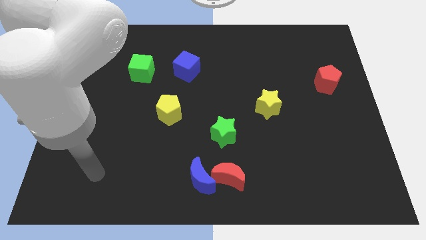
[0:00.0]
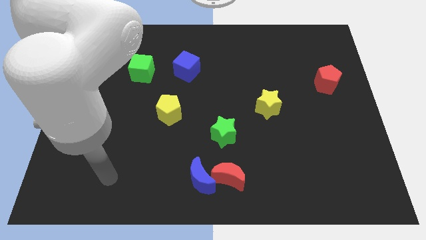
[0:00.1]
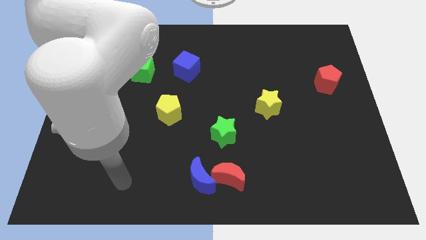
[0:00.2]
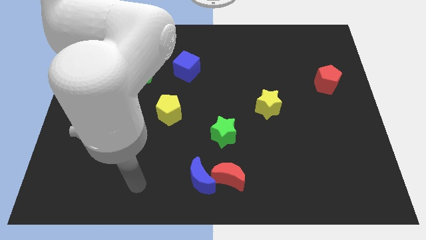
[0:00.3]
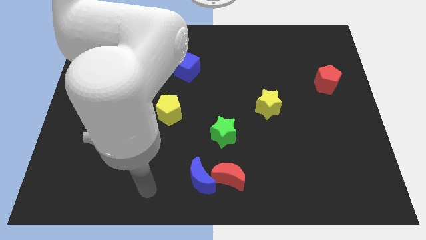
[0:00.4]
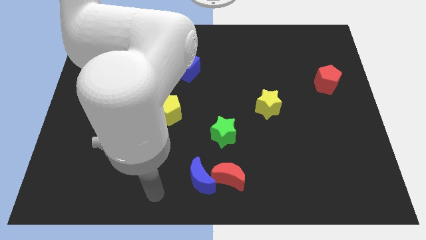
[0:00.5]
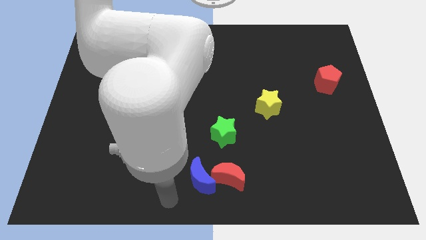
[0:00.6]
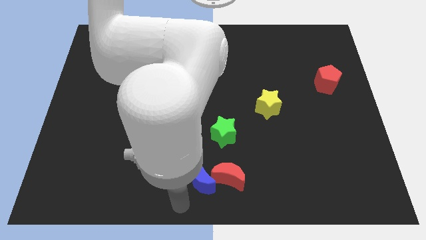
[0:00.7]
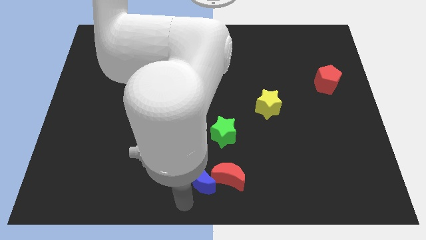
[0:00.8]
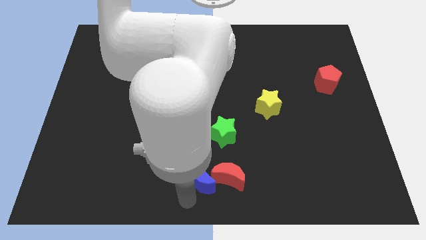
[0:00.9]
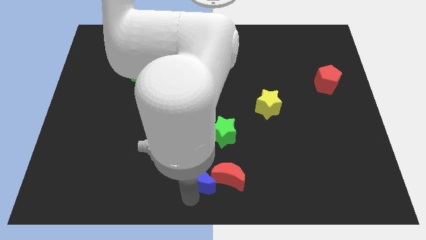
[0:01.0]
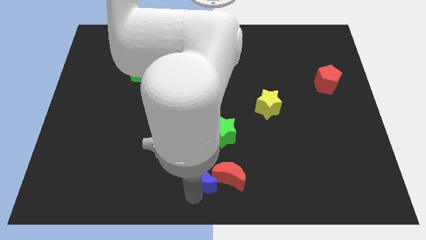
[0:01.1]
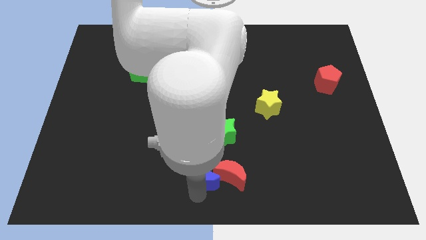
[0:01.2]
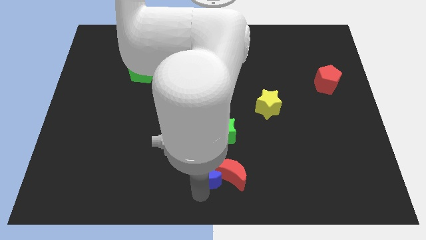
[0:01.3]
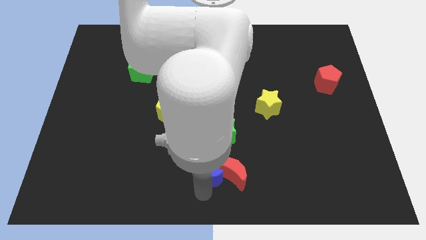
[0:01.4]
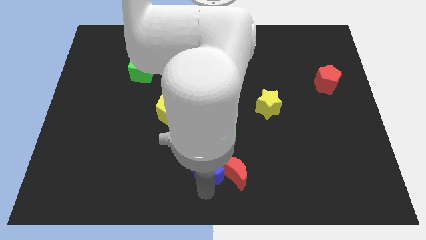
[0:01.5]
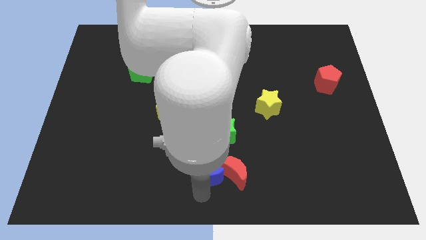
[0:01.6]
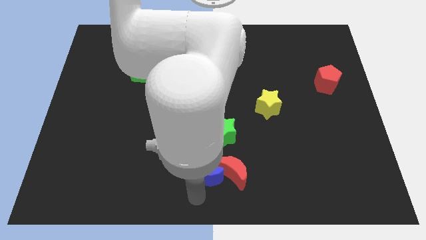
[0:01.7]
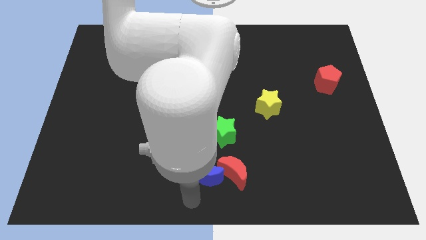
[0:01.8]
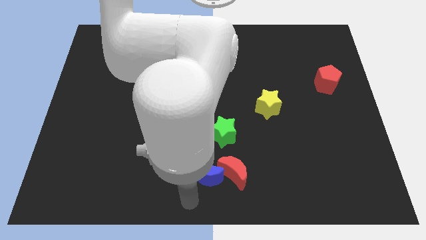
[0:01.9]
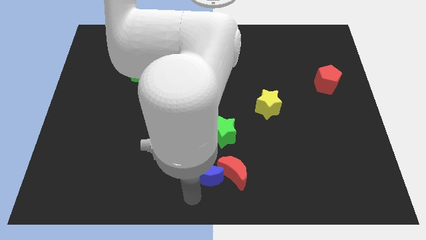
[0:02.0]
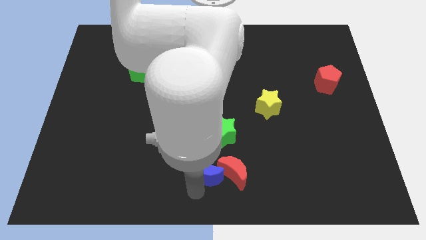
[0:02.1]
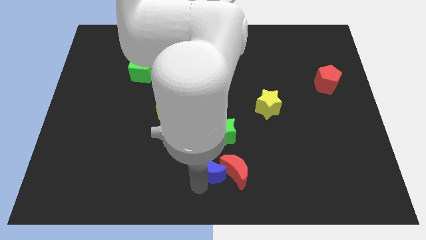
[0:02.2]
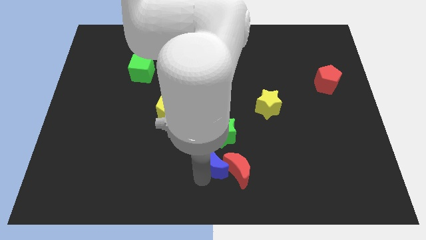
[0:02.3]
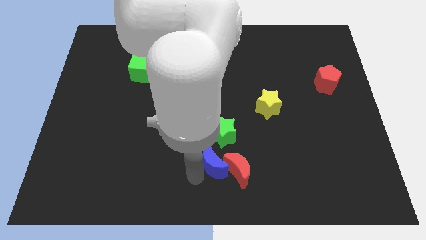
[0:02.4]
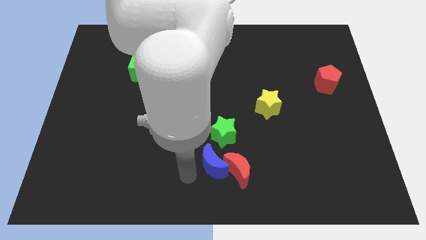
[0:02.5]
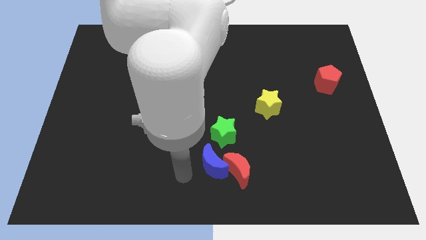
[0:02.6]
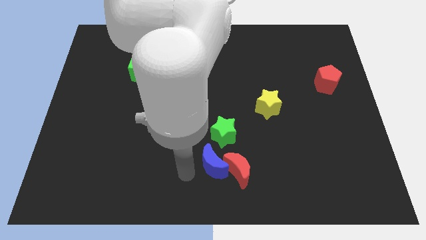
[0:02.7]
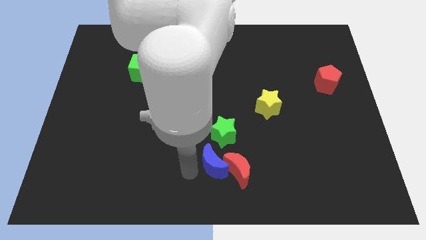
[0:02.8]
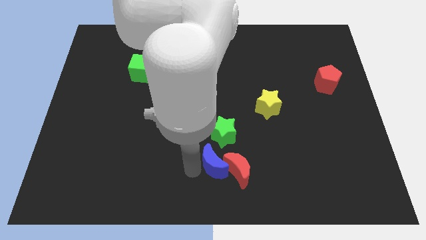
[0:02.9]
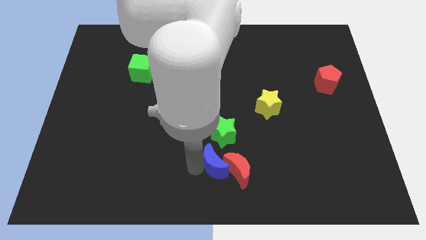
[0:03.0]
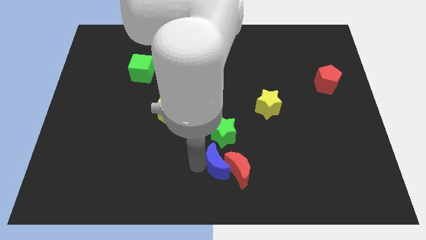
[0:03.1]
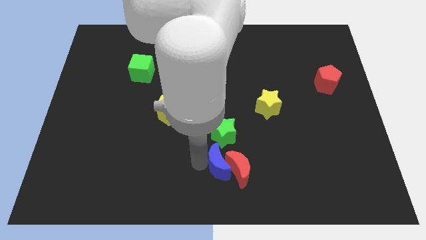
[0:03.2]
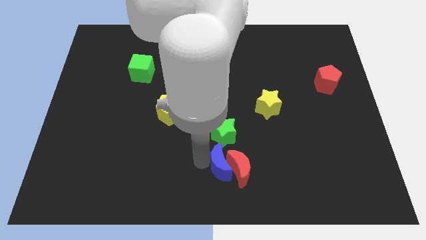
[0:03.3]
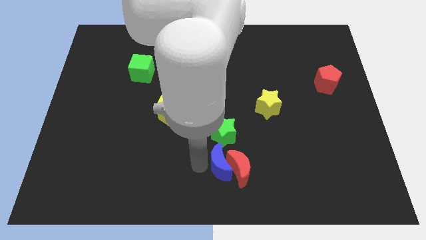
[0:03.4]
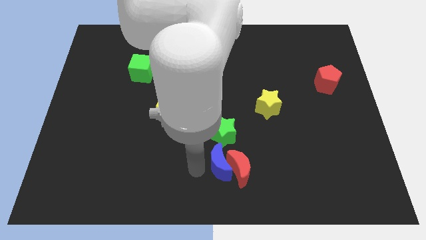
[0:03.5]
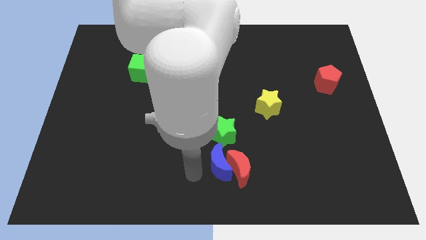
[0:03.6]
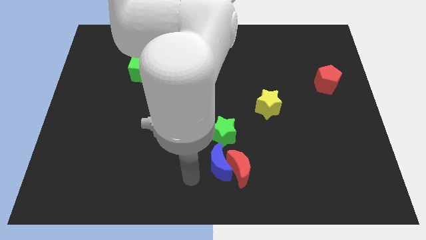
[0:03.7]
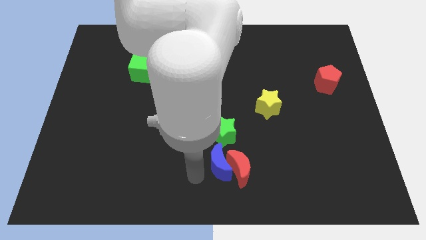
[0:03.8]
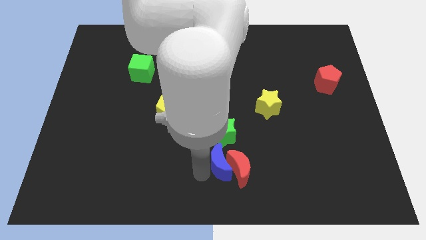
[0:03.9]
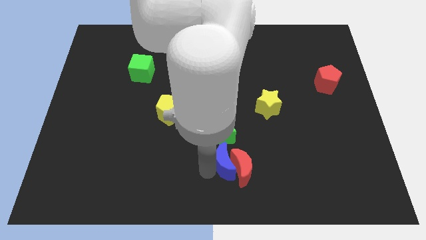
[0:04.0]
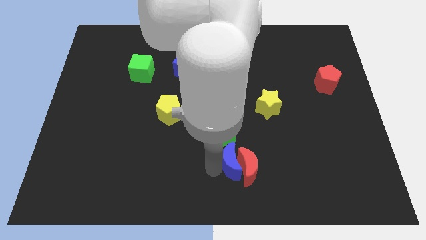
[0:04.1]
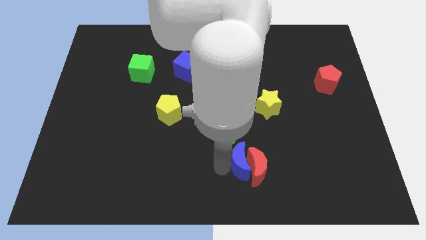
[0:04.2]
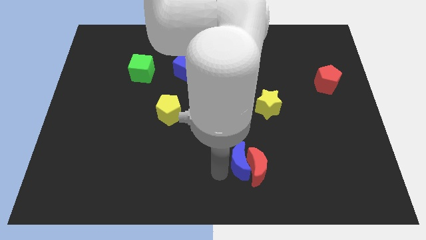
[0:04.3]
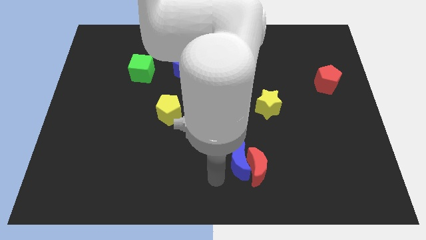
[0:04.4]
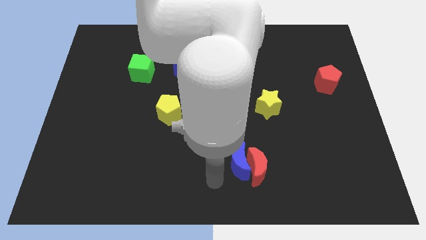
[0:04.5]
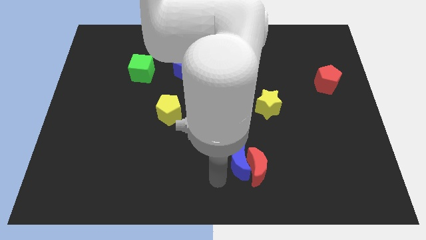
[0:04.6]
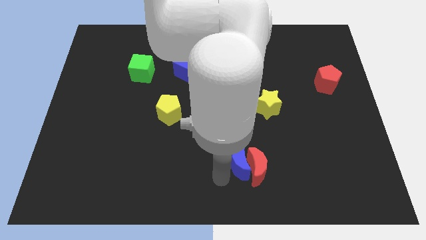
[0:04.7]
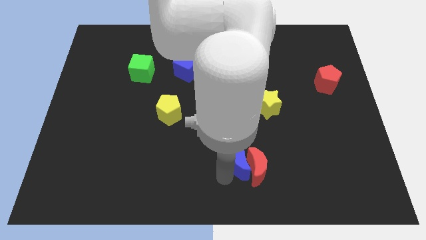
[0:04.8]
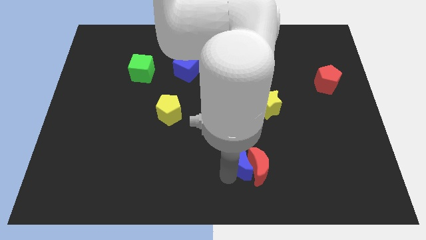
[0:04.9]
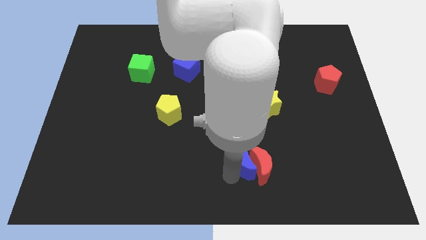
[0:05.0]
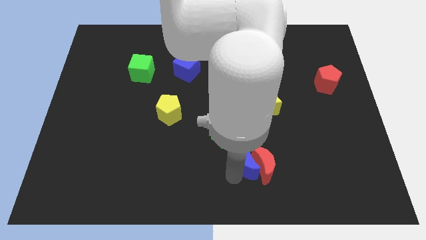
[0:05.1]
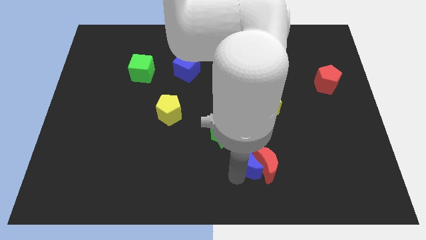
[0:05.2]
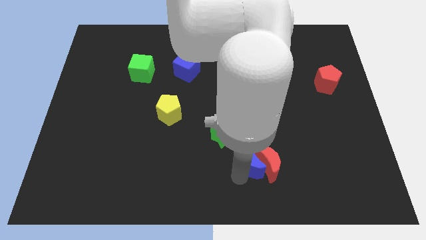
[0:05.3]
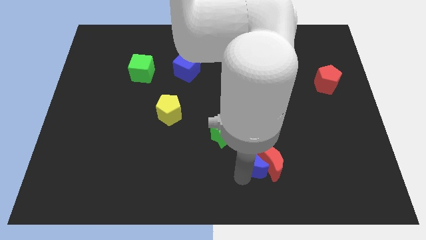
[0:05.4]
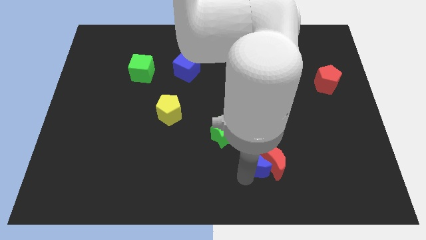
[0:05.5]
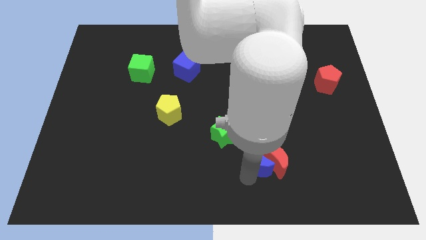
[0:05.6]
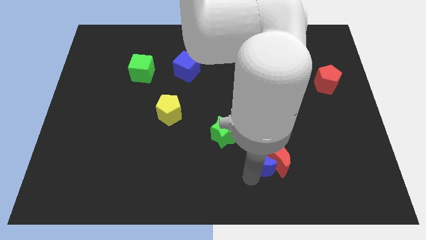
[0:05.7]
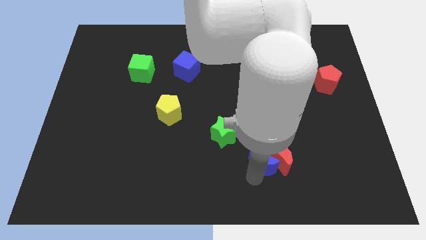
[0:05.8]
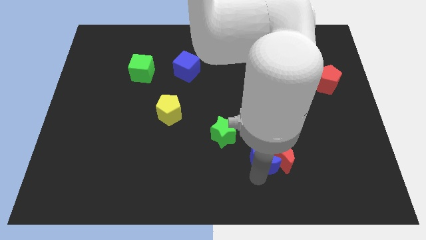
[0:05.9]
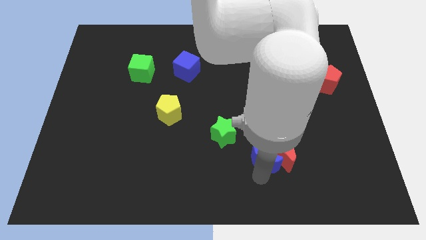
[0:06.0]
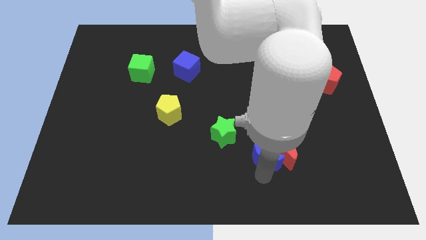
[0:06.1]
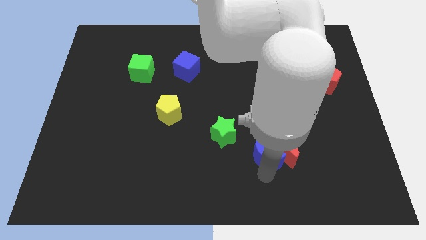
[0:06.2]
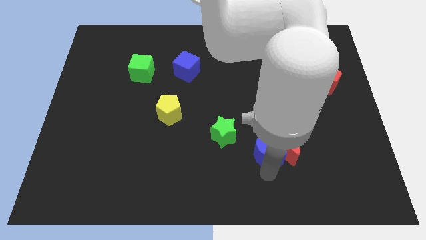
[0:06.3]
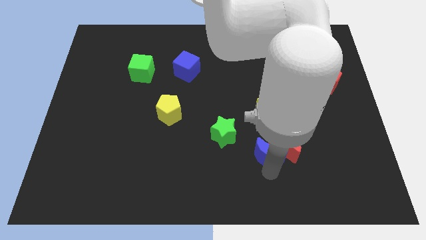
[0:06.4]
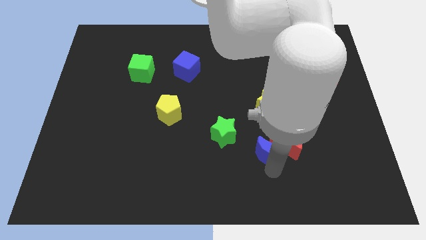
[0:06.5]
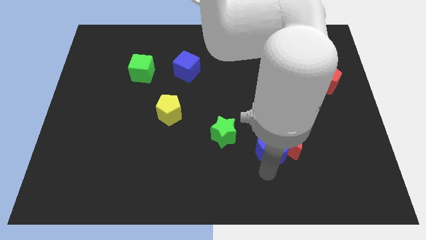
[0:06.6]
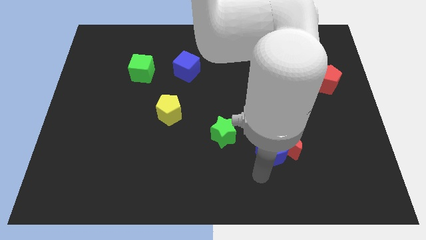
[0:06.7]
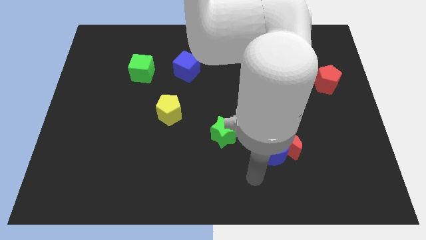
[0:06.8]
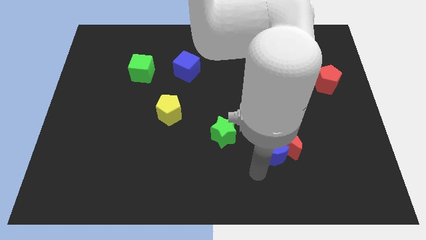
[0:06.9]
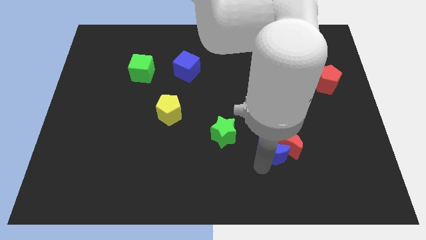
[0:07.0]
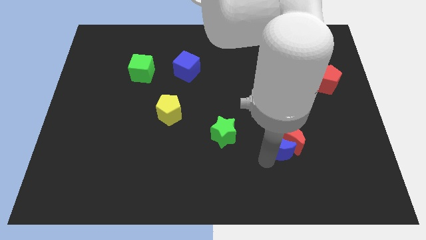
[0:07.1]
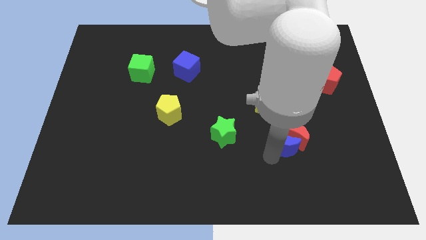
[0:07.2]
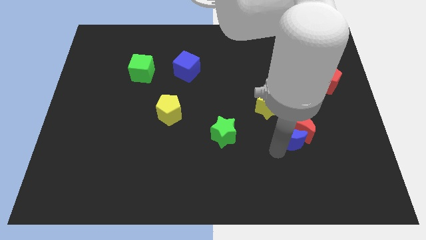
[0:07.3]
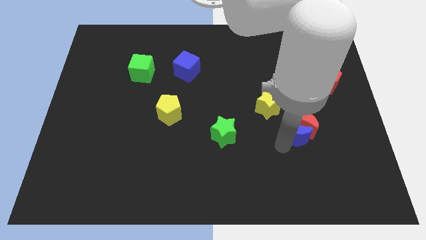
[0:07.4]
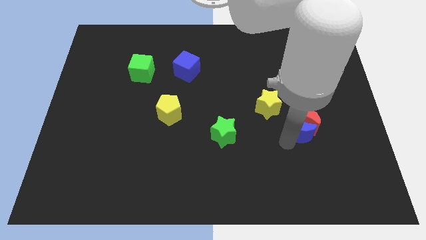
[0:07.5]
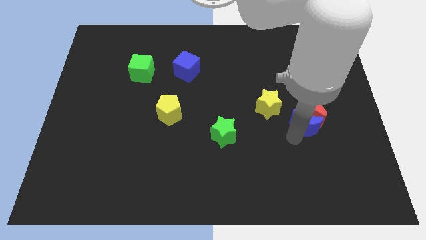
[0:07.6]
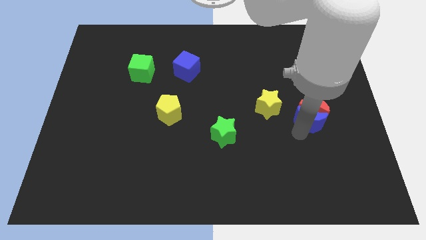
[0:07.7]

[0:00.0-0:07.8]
put the blue moon just right of the yellow star
